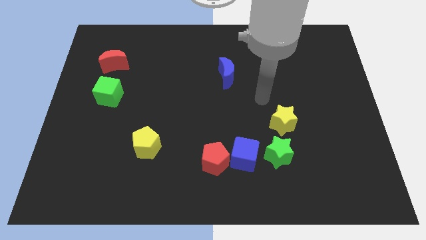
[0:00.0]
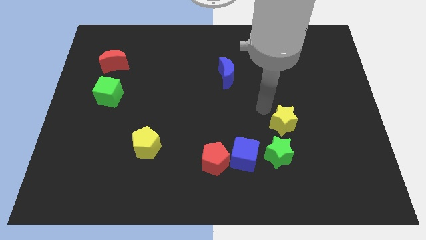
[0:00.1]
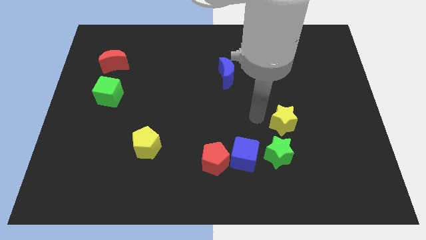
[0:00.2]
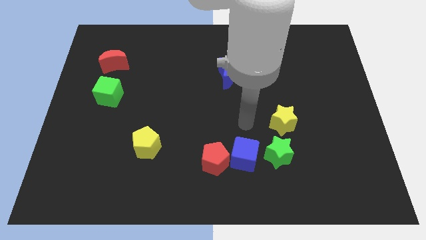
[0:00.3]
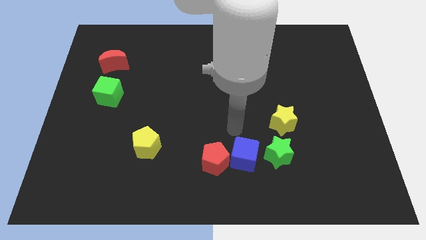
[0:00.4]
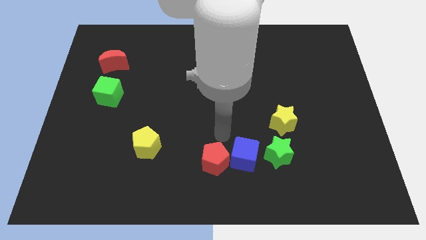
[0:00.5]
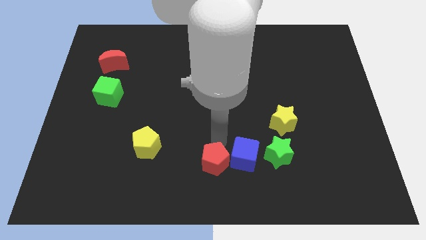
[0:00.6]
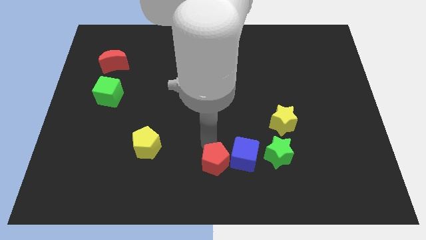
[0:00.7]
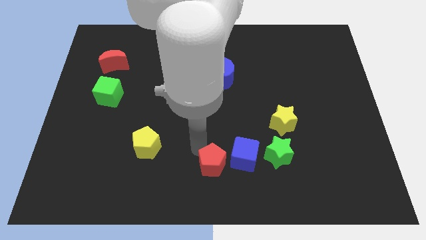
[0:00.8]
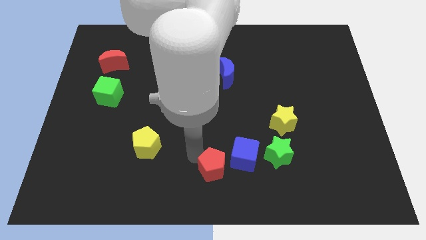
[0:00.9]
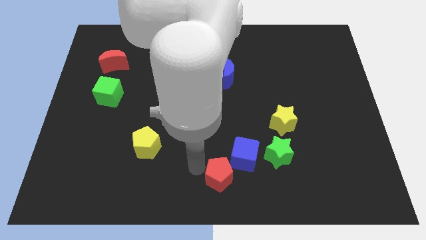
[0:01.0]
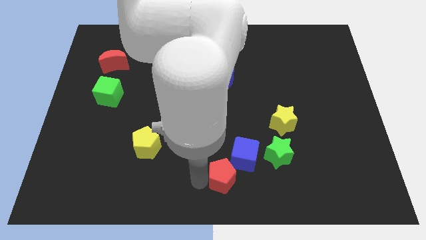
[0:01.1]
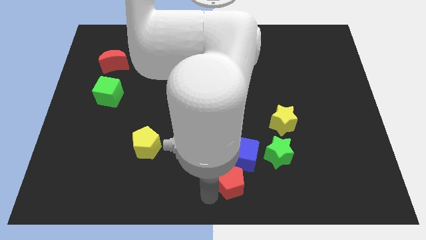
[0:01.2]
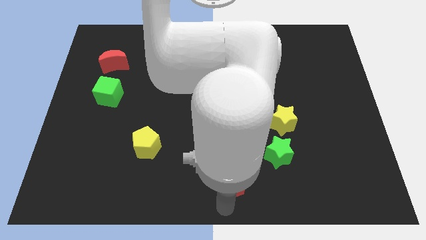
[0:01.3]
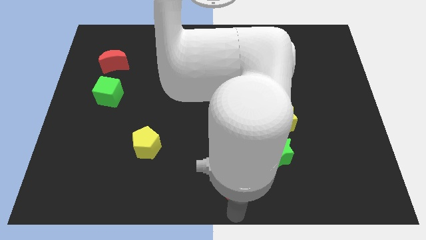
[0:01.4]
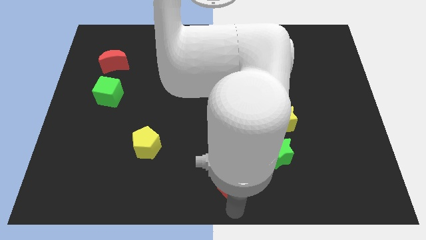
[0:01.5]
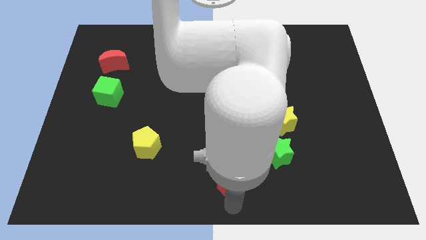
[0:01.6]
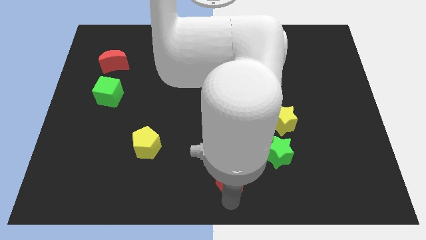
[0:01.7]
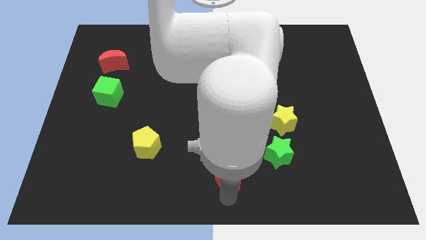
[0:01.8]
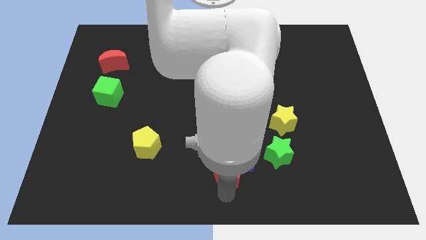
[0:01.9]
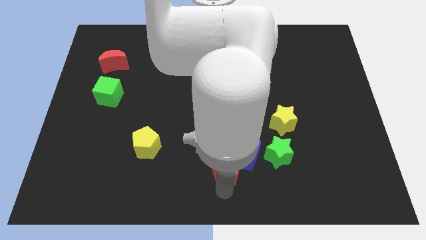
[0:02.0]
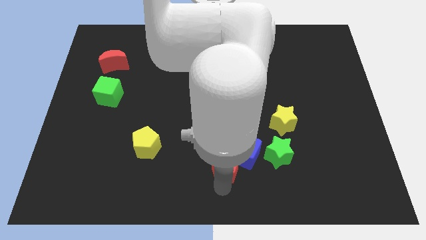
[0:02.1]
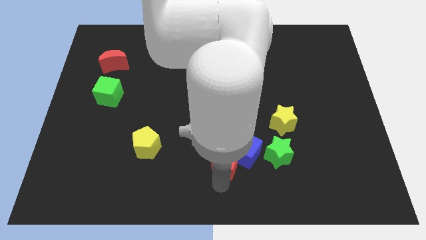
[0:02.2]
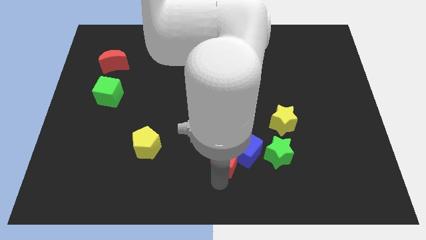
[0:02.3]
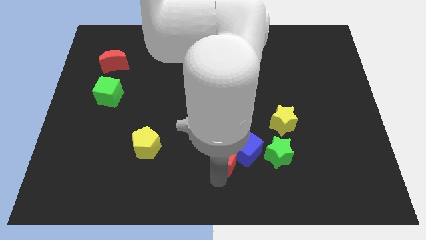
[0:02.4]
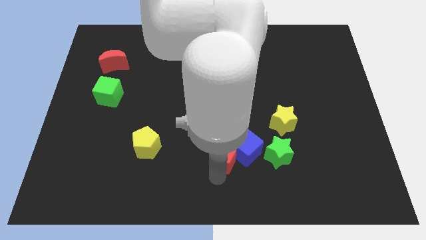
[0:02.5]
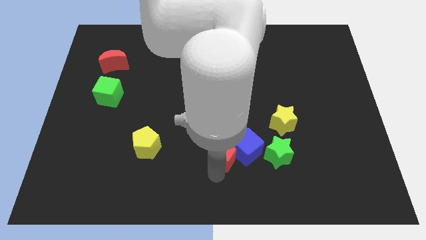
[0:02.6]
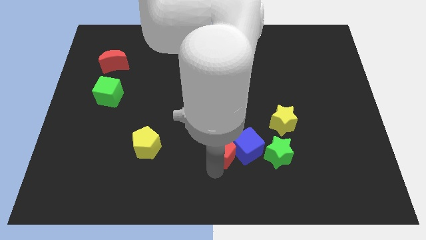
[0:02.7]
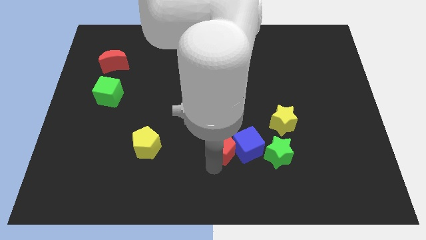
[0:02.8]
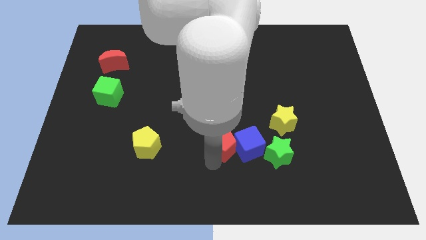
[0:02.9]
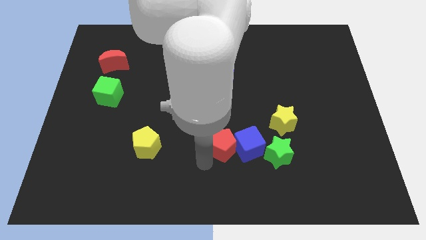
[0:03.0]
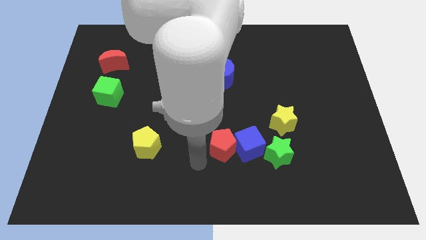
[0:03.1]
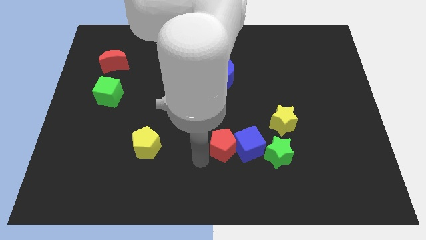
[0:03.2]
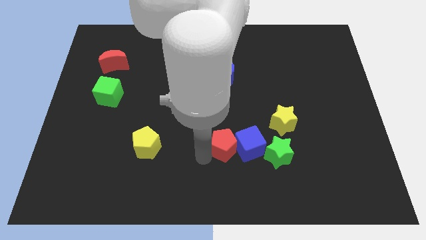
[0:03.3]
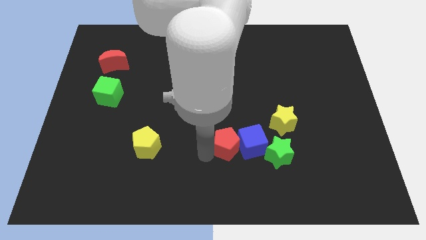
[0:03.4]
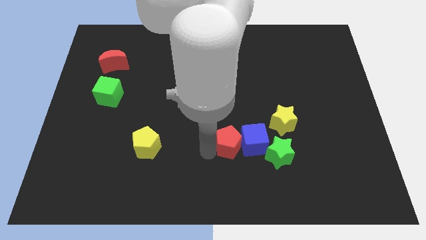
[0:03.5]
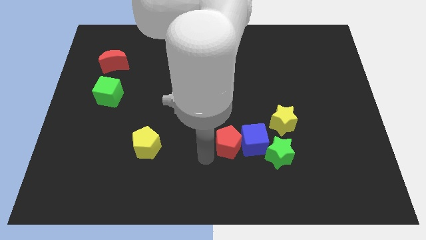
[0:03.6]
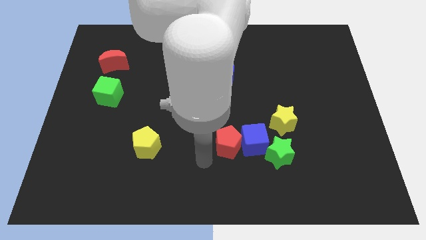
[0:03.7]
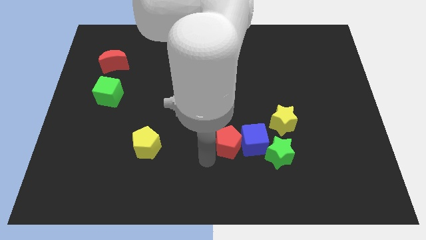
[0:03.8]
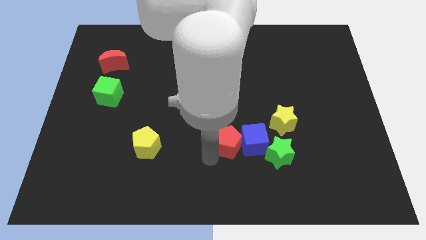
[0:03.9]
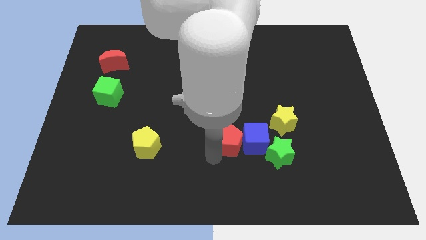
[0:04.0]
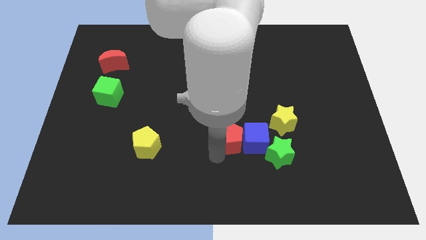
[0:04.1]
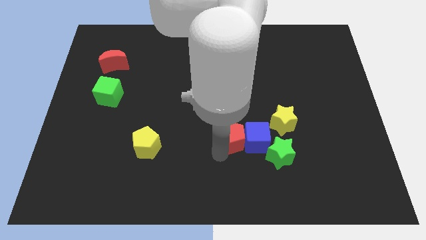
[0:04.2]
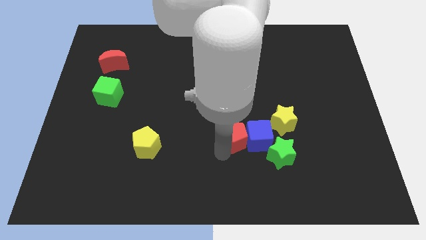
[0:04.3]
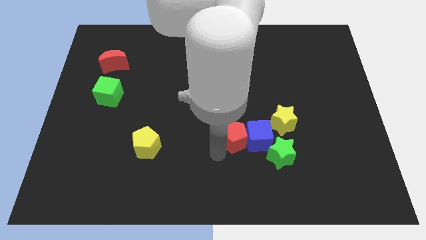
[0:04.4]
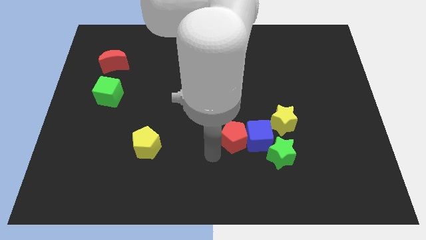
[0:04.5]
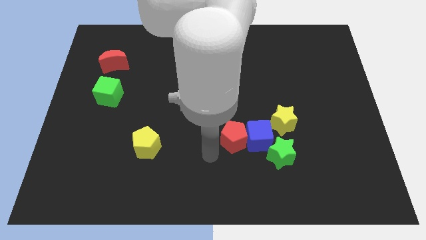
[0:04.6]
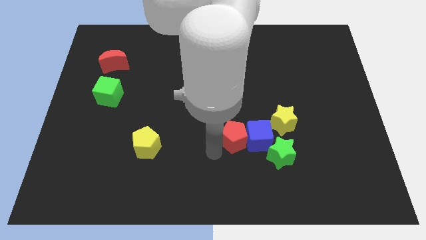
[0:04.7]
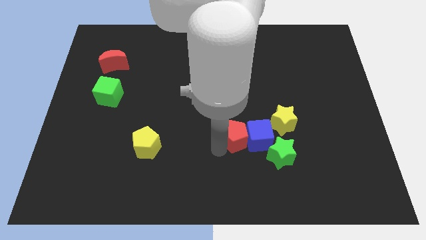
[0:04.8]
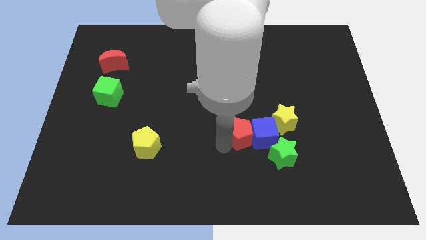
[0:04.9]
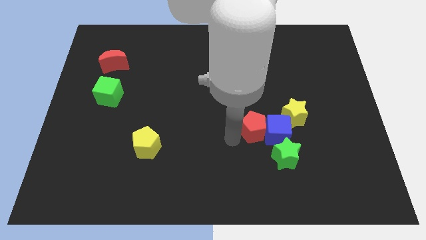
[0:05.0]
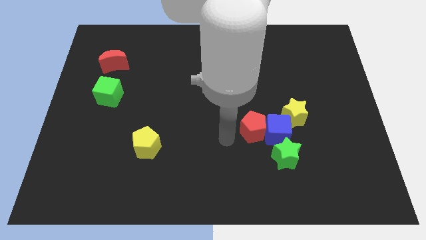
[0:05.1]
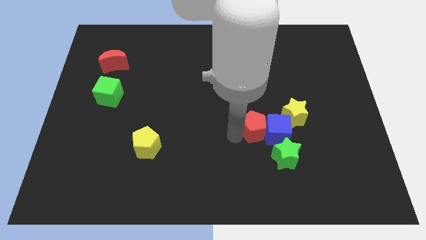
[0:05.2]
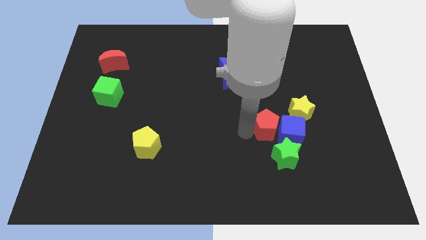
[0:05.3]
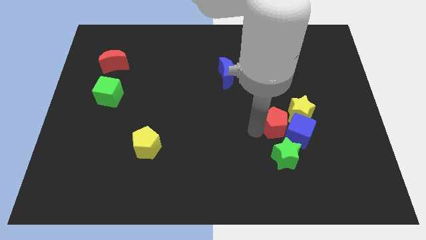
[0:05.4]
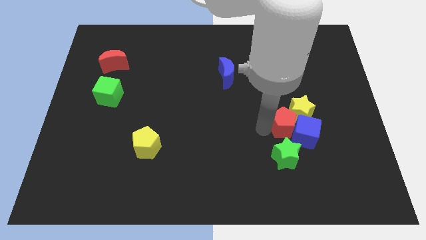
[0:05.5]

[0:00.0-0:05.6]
put the red pentagon close to the yellow star

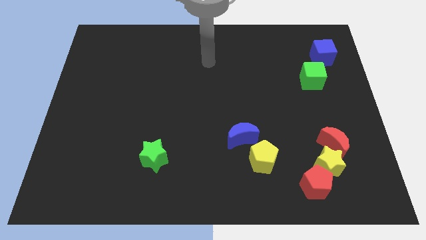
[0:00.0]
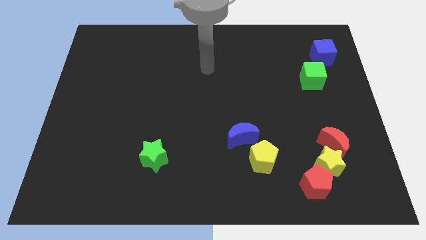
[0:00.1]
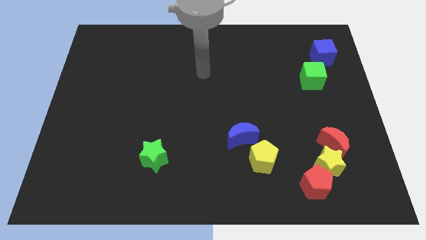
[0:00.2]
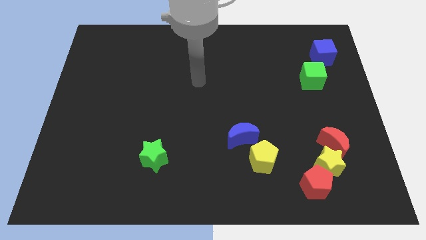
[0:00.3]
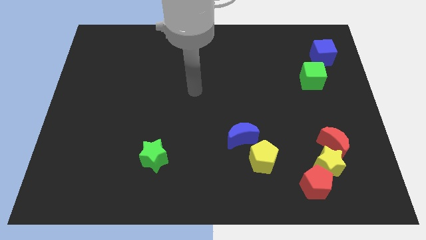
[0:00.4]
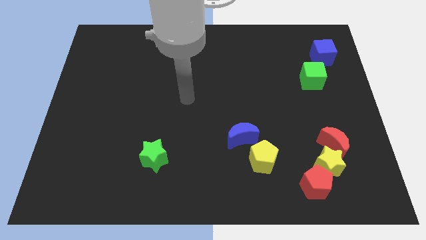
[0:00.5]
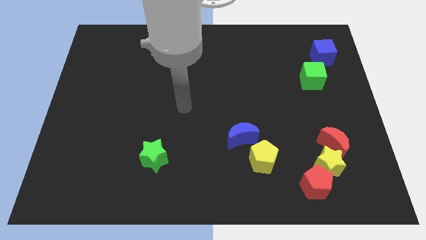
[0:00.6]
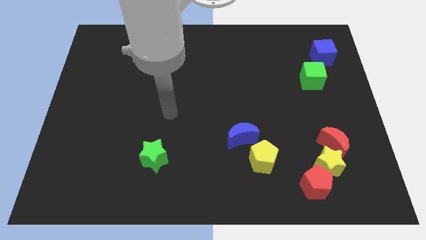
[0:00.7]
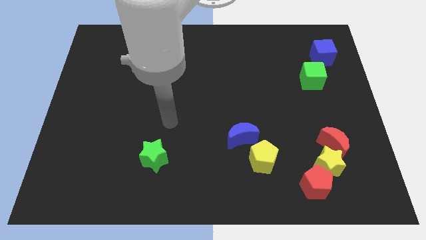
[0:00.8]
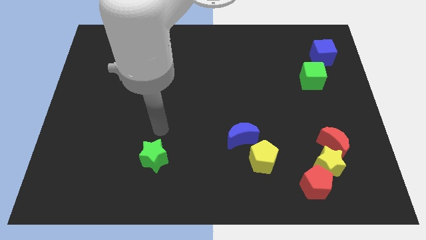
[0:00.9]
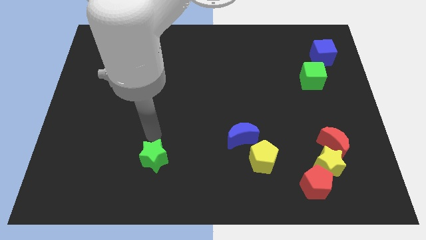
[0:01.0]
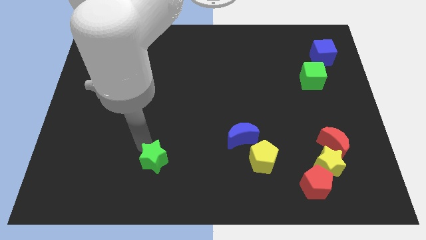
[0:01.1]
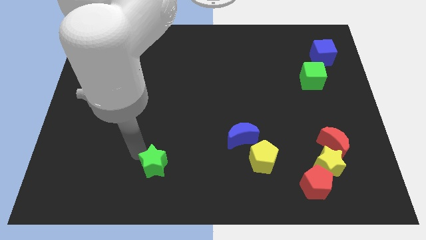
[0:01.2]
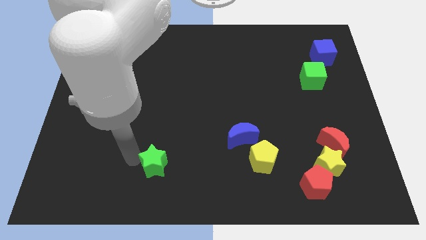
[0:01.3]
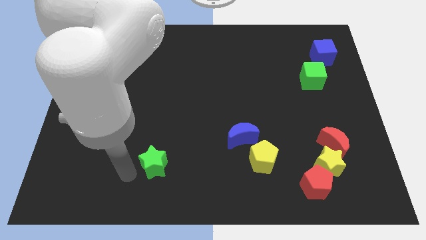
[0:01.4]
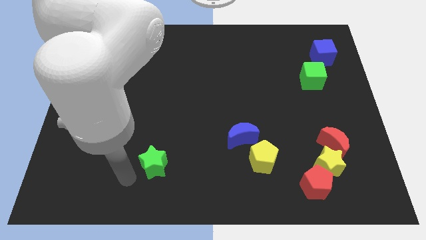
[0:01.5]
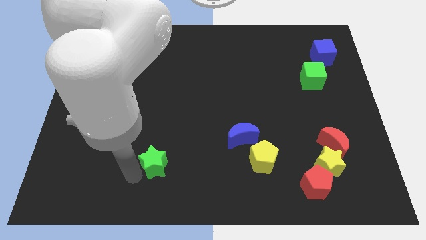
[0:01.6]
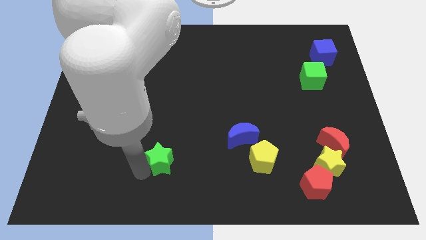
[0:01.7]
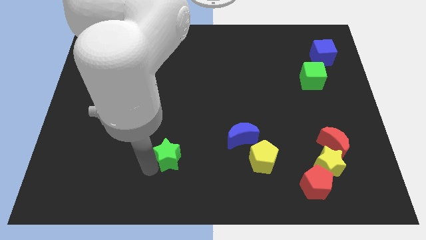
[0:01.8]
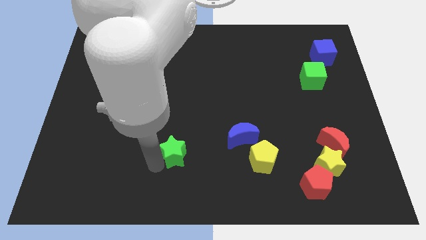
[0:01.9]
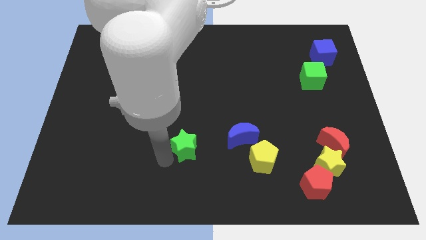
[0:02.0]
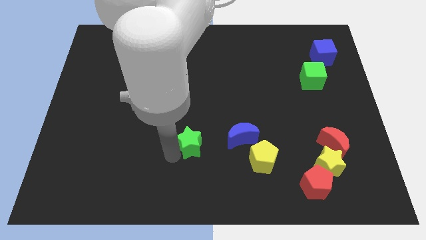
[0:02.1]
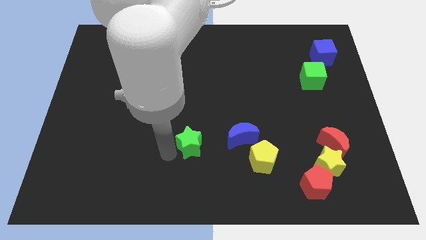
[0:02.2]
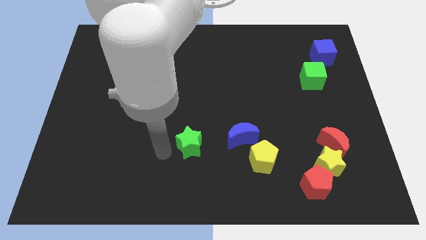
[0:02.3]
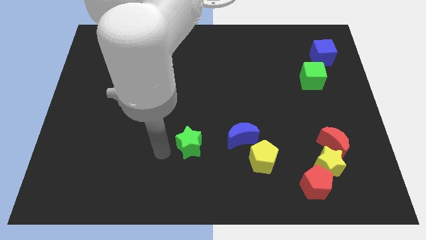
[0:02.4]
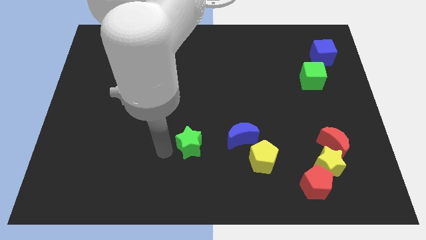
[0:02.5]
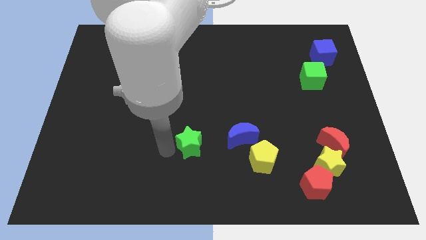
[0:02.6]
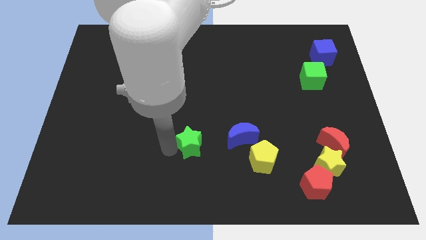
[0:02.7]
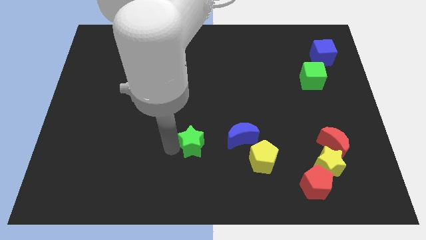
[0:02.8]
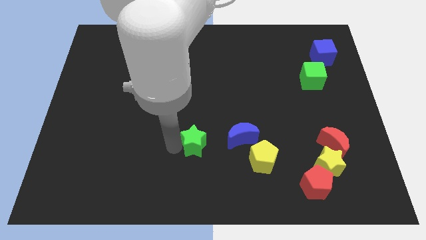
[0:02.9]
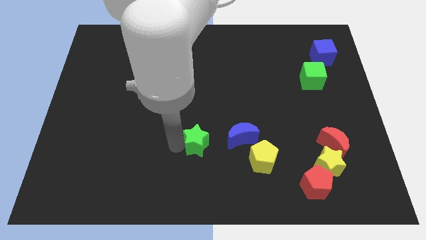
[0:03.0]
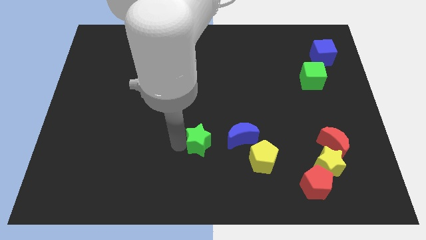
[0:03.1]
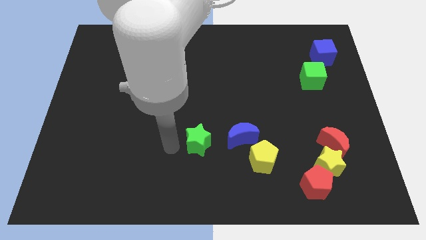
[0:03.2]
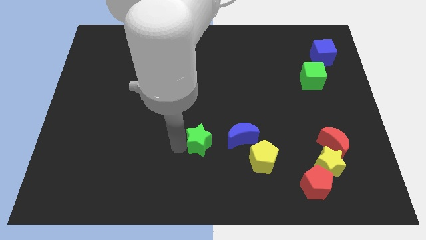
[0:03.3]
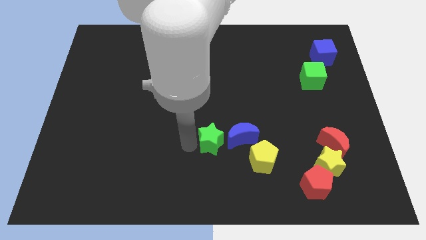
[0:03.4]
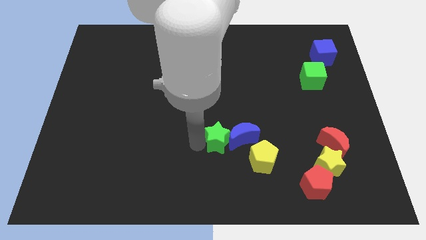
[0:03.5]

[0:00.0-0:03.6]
slide the green star next to the blue moon
